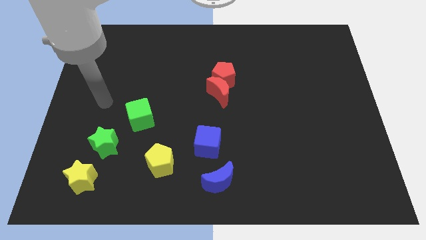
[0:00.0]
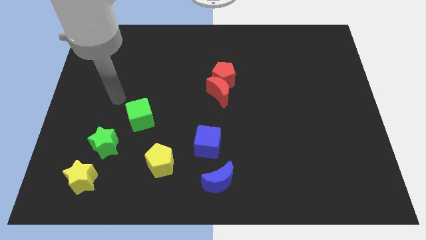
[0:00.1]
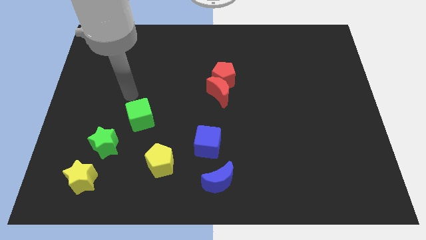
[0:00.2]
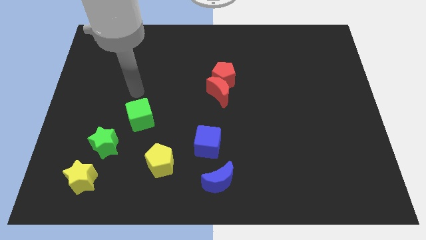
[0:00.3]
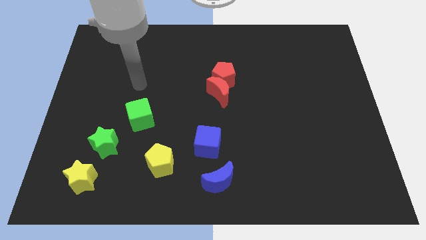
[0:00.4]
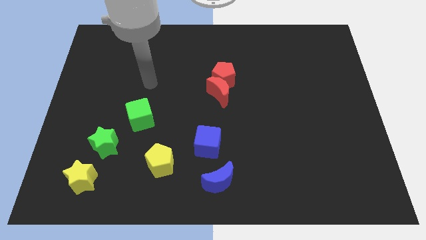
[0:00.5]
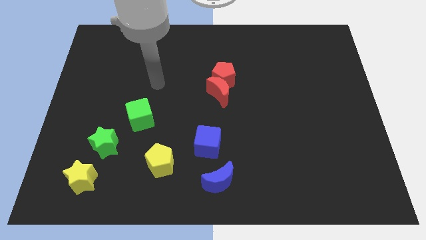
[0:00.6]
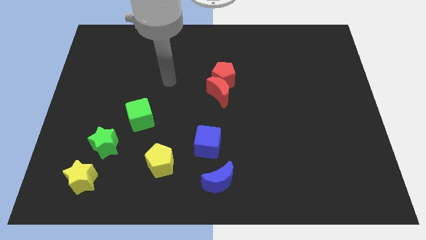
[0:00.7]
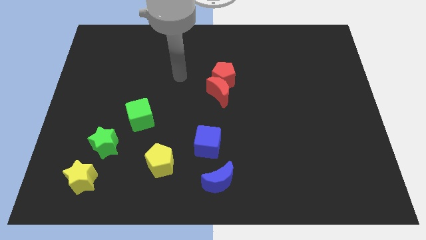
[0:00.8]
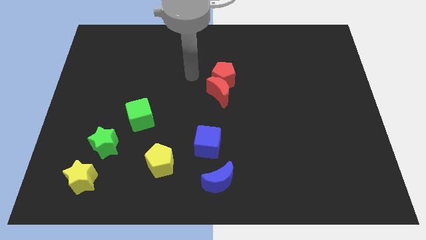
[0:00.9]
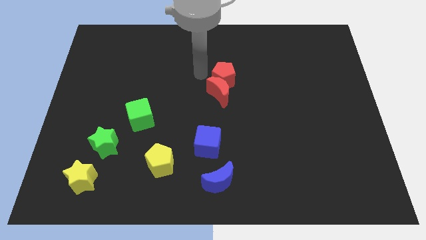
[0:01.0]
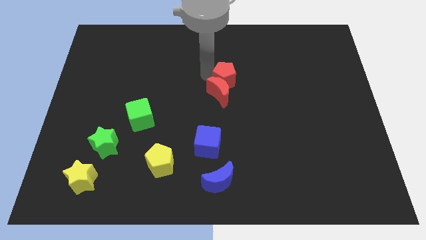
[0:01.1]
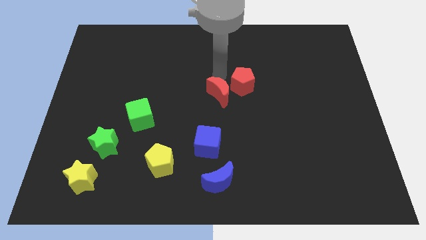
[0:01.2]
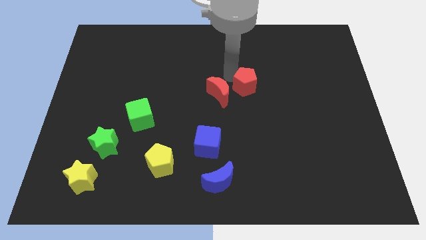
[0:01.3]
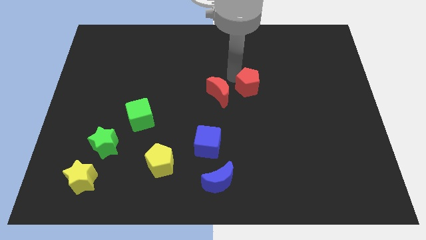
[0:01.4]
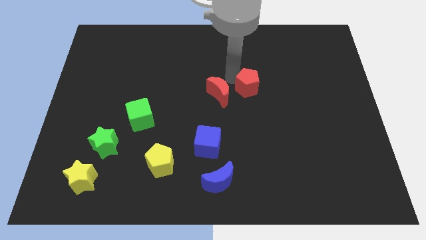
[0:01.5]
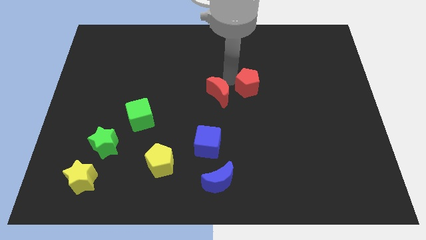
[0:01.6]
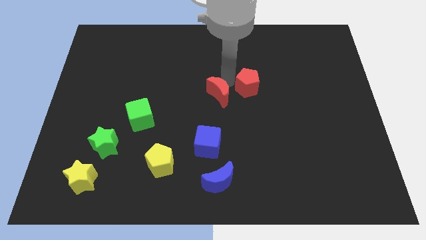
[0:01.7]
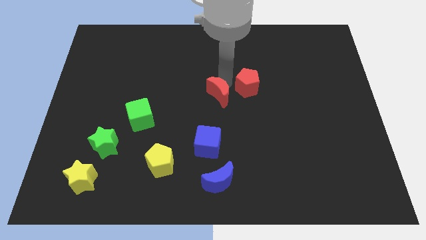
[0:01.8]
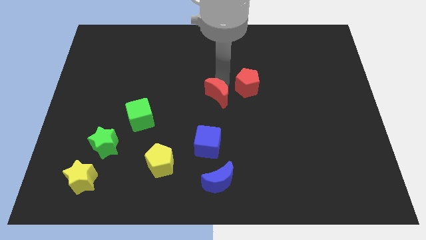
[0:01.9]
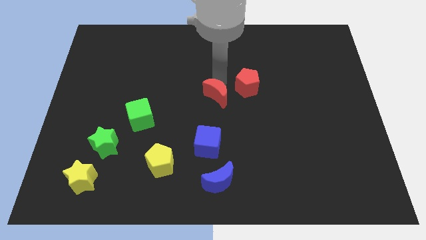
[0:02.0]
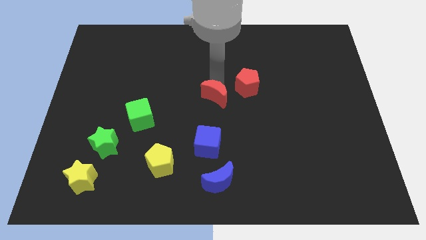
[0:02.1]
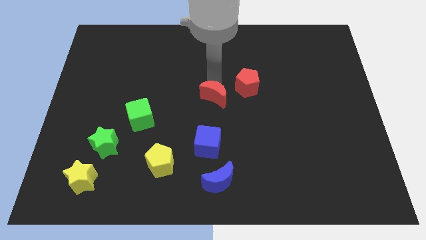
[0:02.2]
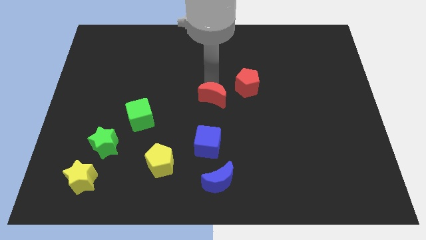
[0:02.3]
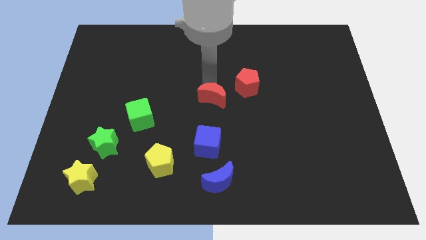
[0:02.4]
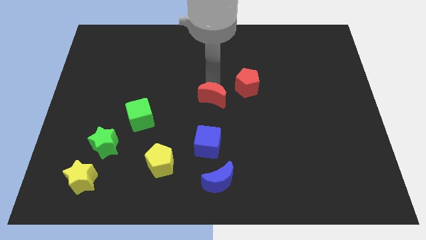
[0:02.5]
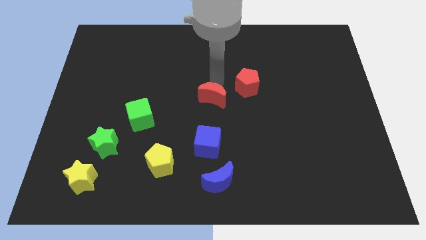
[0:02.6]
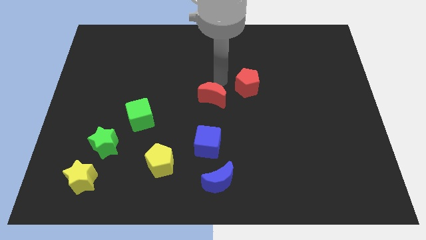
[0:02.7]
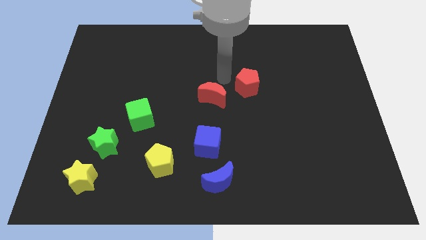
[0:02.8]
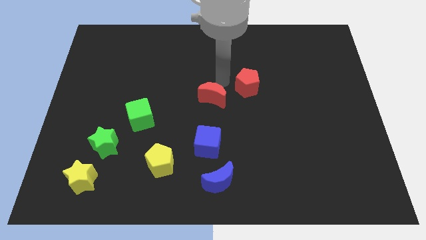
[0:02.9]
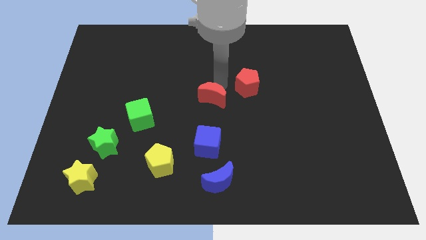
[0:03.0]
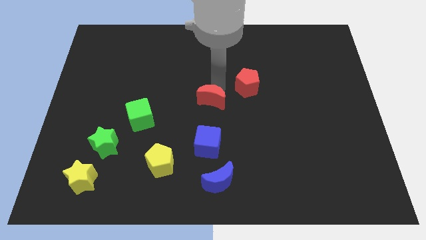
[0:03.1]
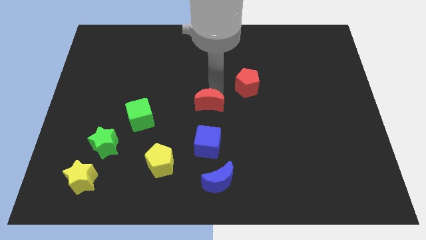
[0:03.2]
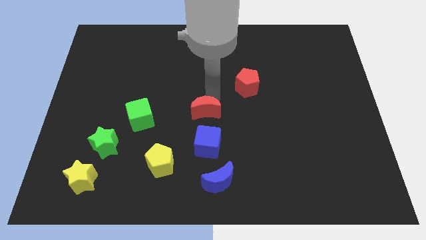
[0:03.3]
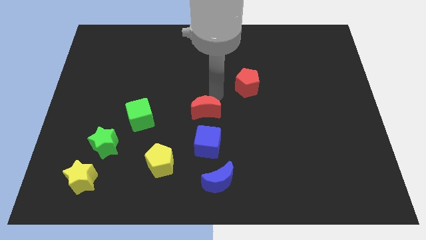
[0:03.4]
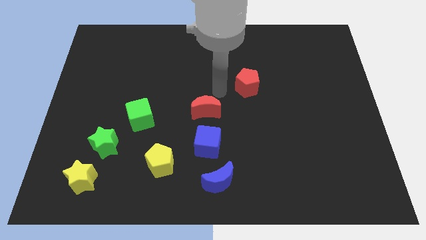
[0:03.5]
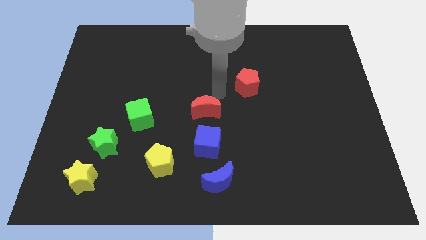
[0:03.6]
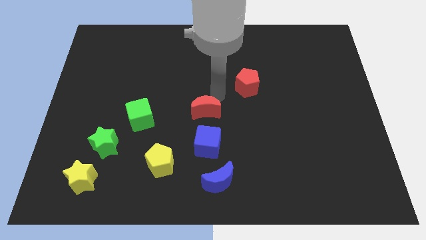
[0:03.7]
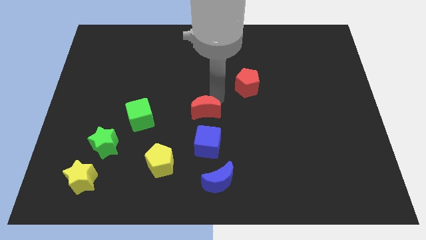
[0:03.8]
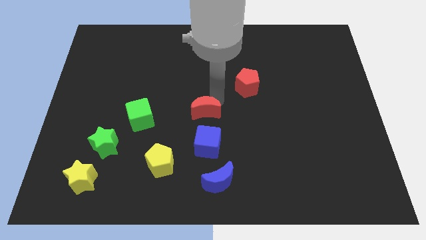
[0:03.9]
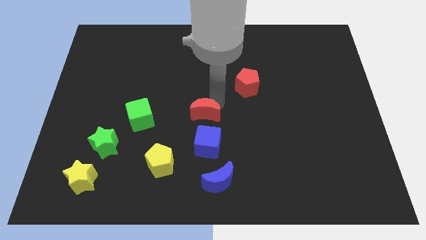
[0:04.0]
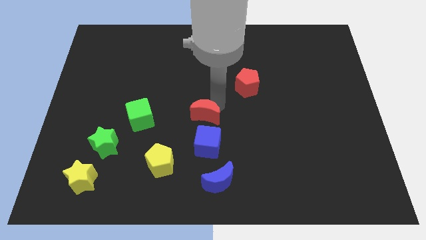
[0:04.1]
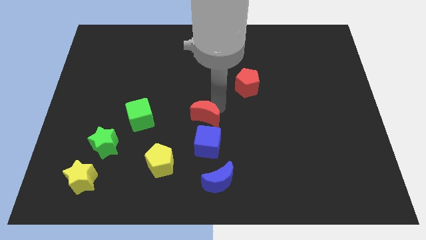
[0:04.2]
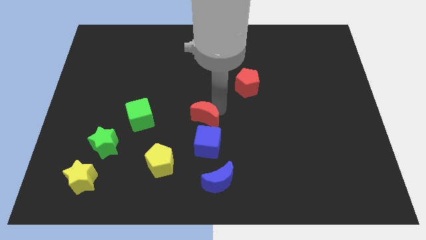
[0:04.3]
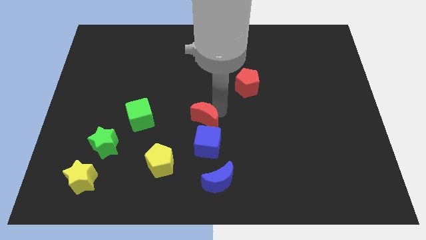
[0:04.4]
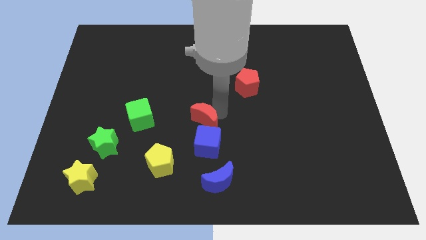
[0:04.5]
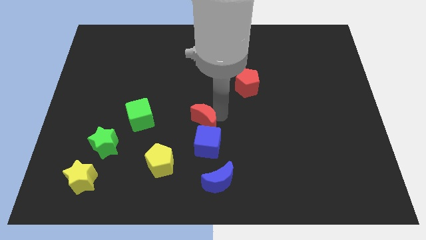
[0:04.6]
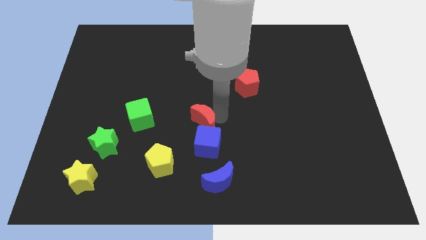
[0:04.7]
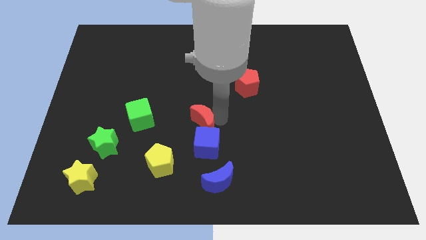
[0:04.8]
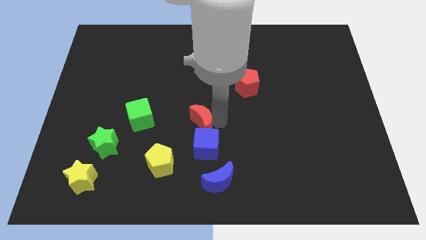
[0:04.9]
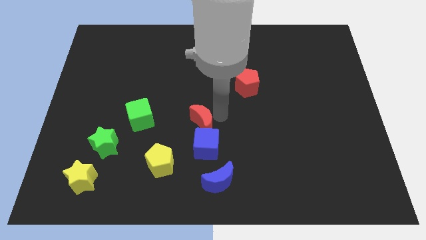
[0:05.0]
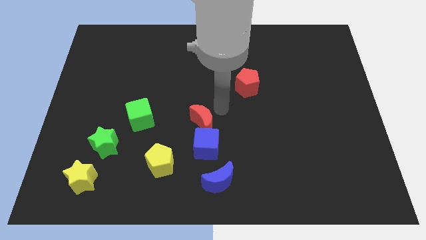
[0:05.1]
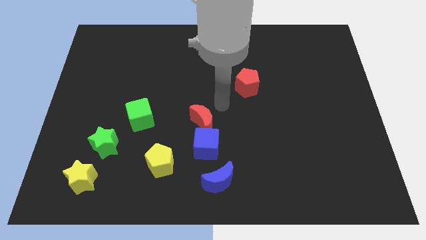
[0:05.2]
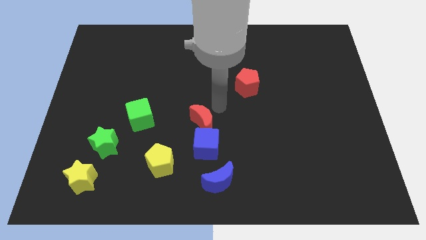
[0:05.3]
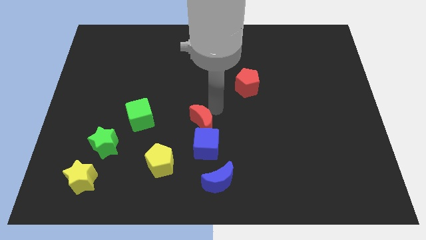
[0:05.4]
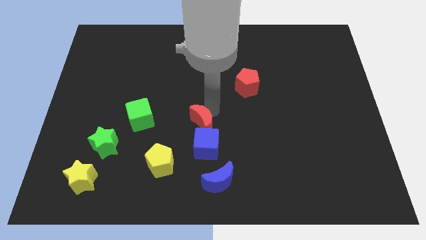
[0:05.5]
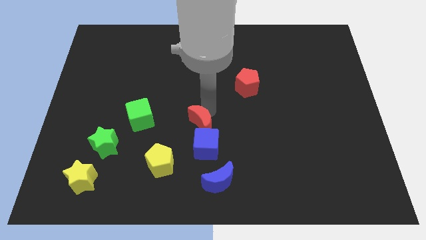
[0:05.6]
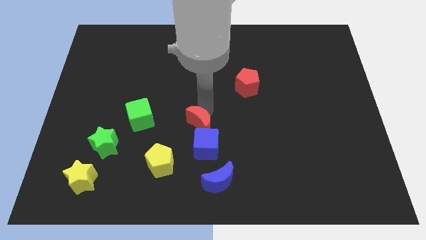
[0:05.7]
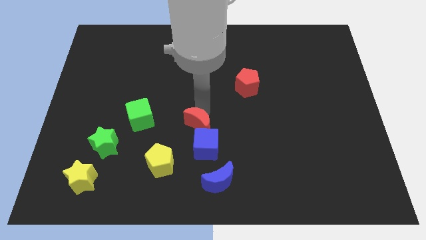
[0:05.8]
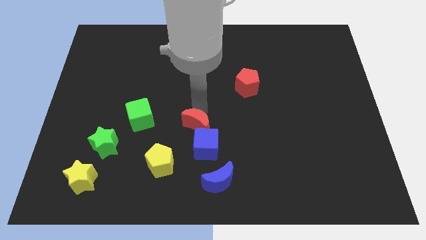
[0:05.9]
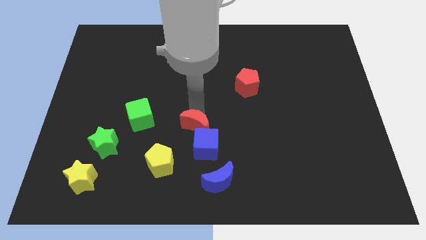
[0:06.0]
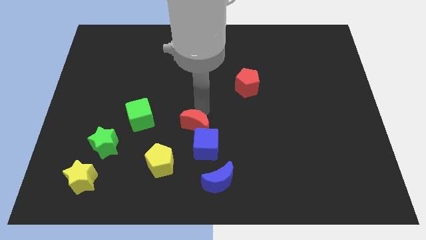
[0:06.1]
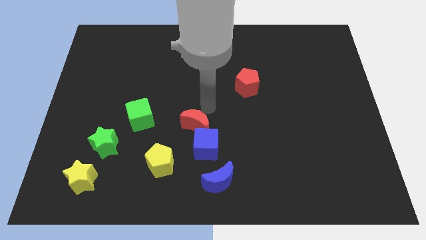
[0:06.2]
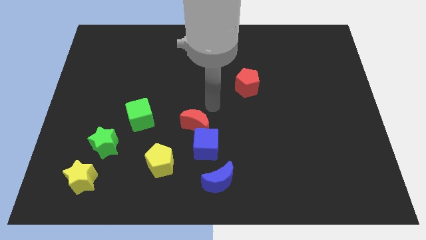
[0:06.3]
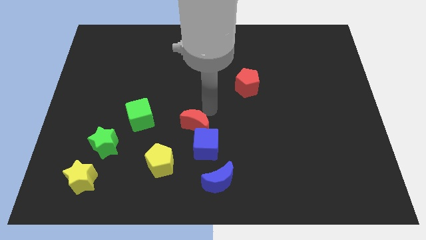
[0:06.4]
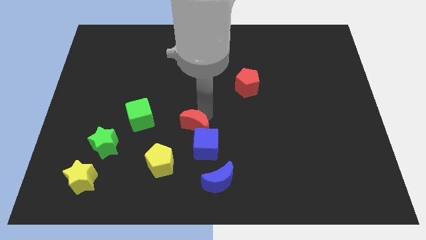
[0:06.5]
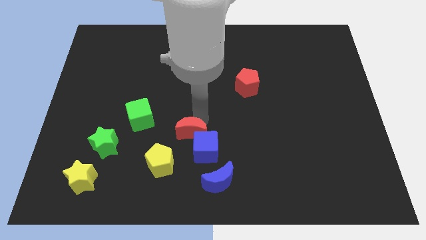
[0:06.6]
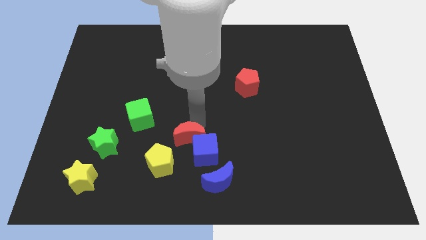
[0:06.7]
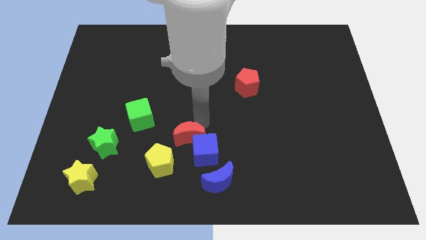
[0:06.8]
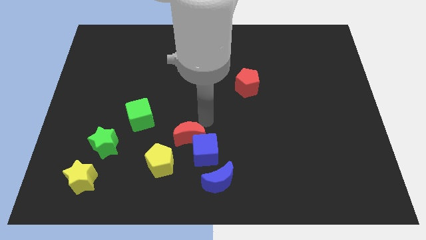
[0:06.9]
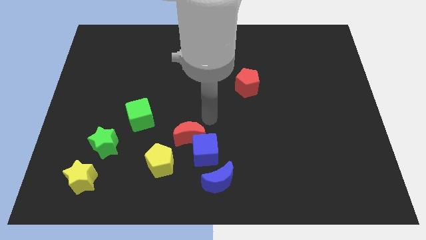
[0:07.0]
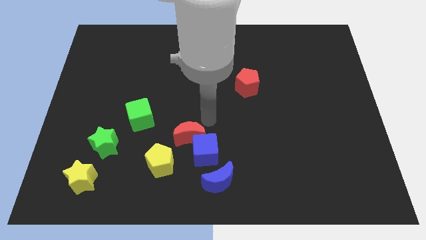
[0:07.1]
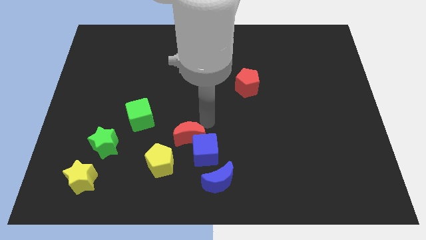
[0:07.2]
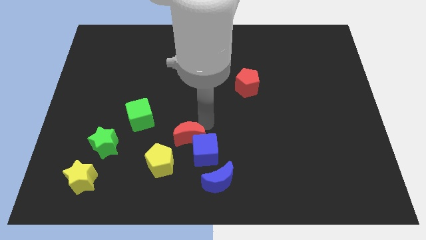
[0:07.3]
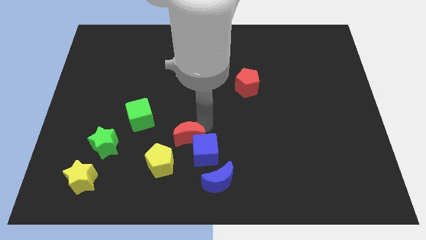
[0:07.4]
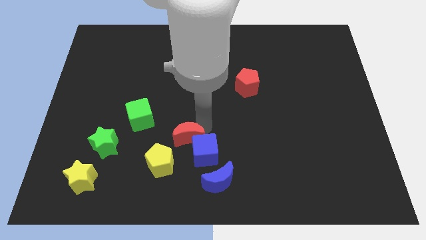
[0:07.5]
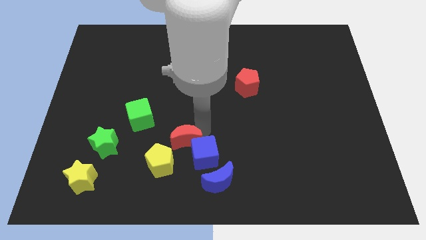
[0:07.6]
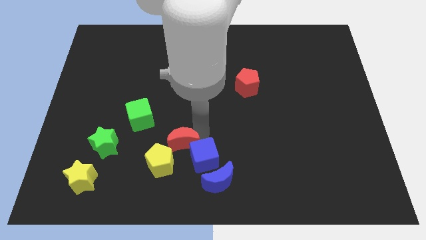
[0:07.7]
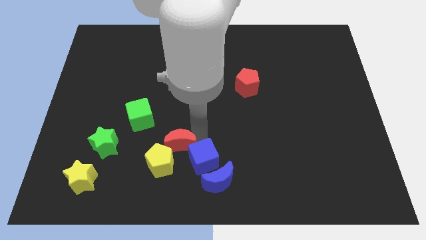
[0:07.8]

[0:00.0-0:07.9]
put the red moon to the yellow pentagon
